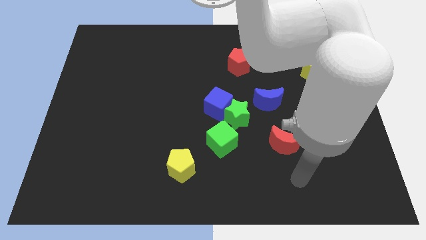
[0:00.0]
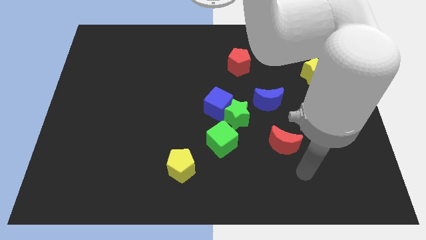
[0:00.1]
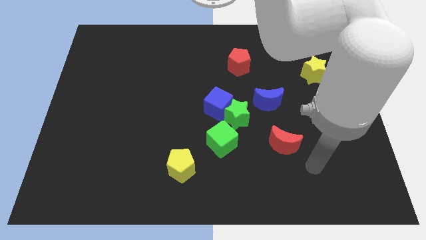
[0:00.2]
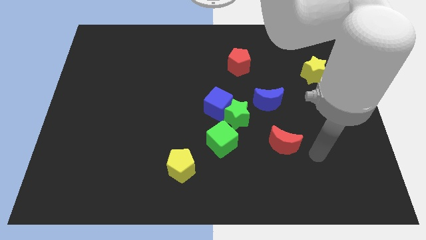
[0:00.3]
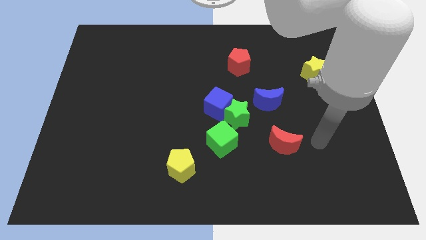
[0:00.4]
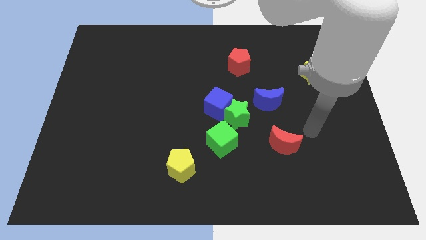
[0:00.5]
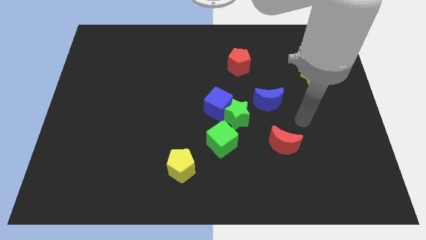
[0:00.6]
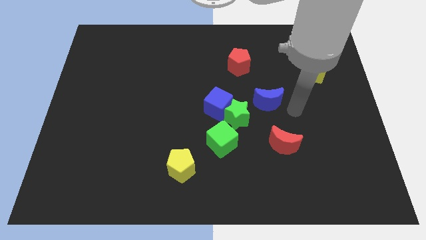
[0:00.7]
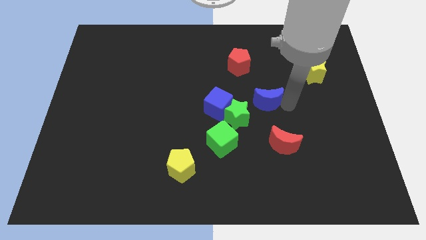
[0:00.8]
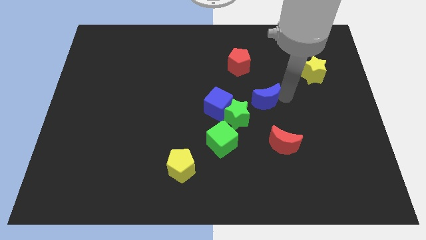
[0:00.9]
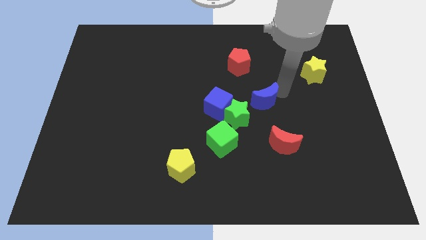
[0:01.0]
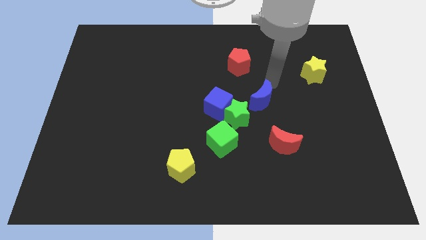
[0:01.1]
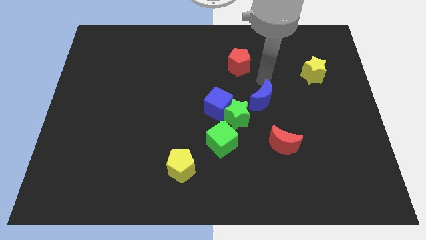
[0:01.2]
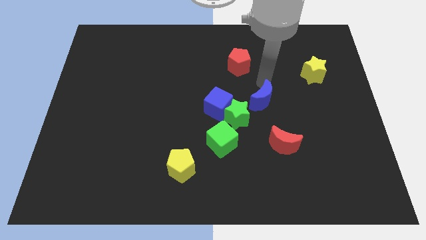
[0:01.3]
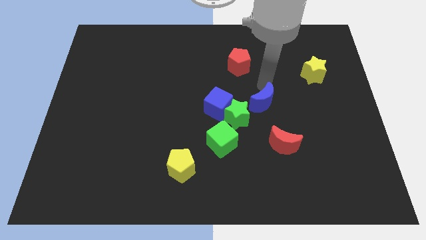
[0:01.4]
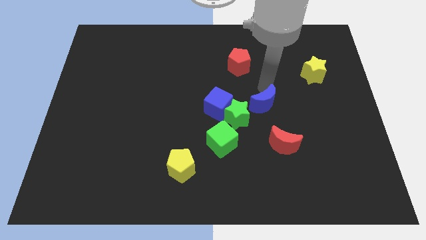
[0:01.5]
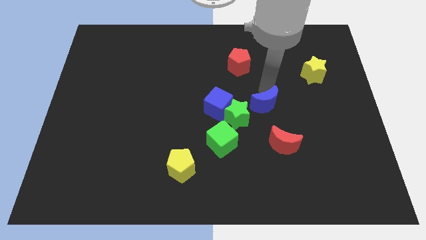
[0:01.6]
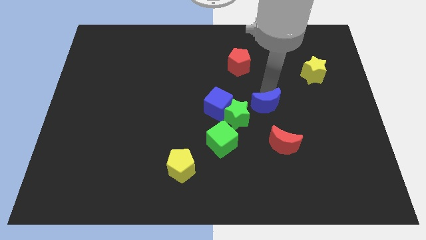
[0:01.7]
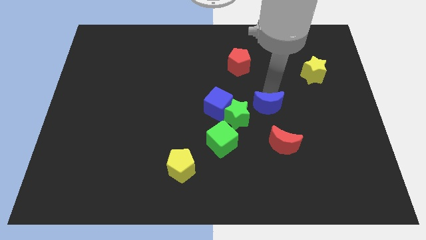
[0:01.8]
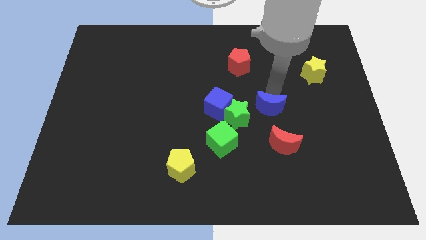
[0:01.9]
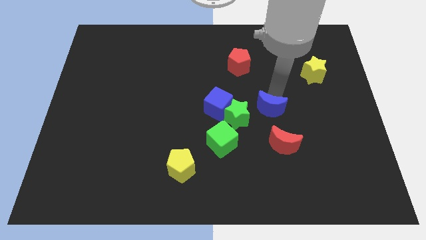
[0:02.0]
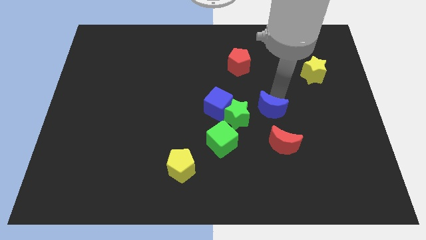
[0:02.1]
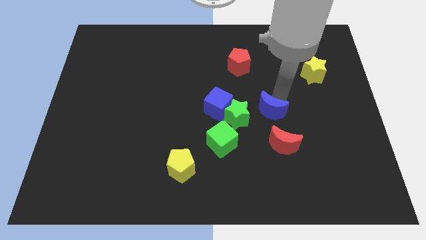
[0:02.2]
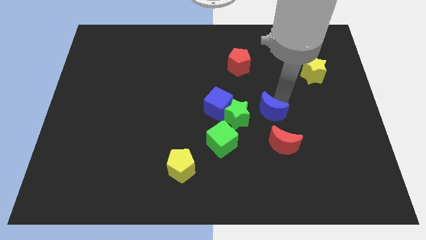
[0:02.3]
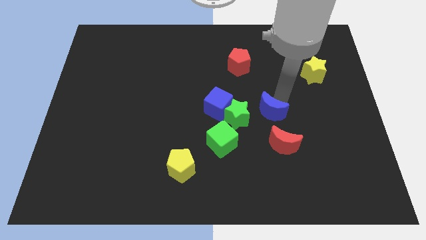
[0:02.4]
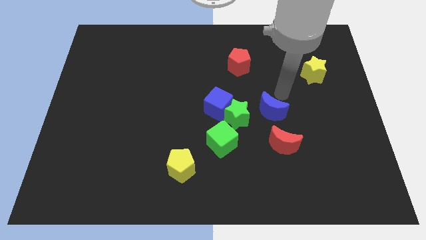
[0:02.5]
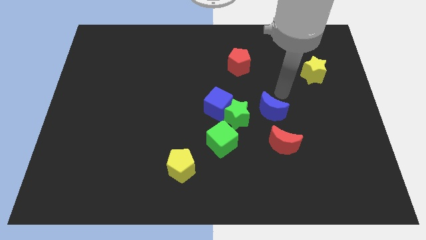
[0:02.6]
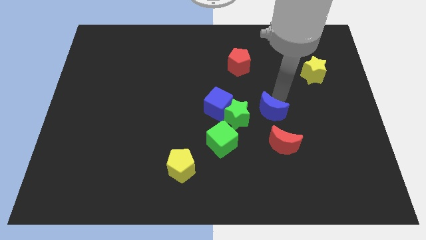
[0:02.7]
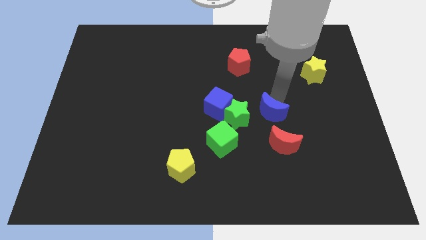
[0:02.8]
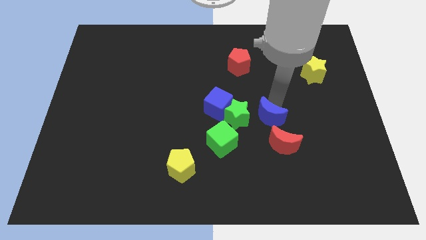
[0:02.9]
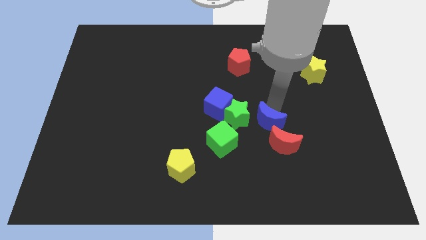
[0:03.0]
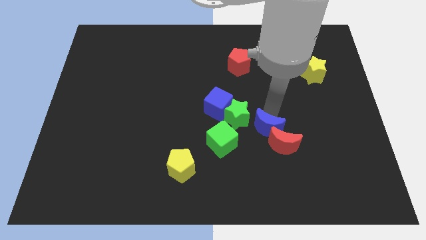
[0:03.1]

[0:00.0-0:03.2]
move the blue moon slightly downwards

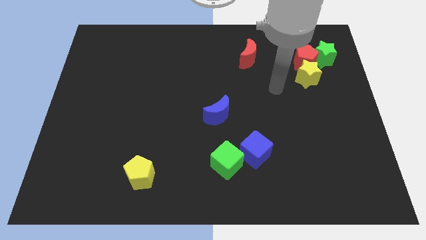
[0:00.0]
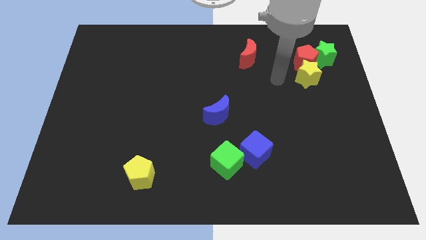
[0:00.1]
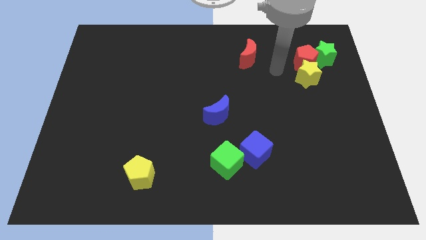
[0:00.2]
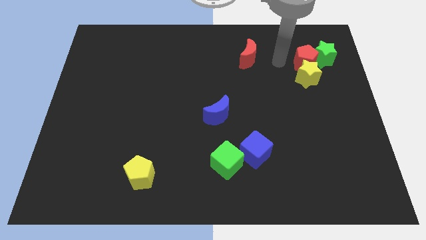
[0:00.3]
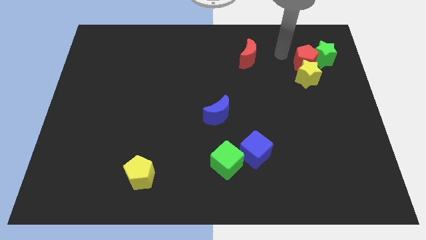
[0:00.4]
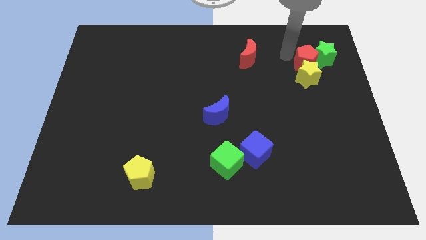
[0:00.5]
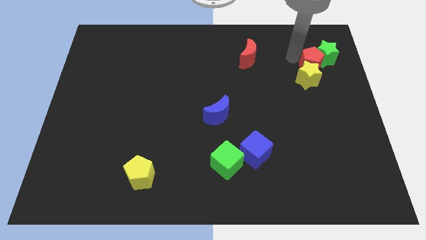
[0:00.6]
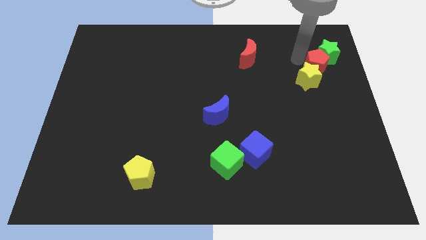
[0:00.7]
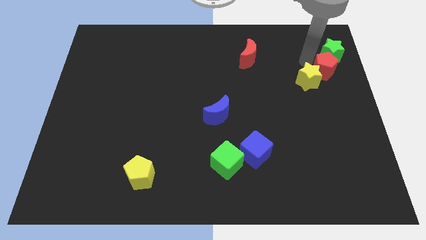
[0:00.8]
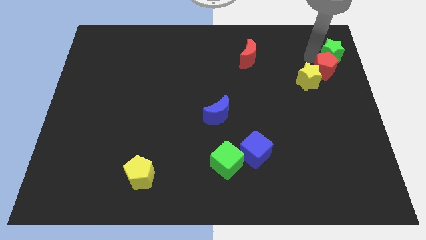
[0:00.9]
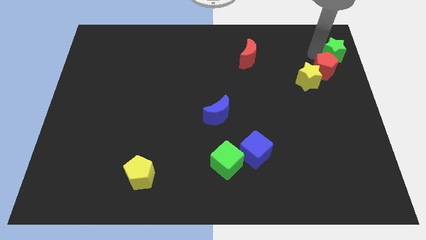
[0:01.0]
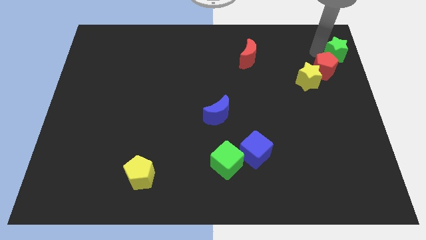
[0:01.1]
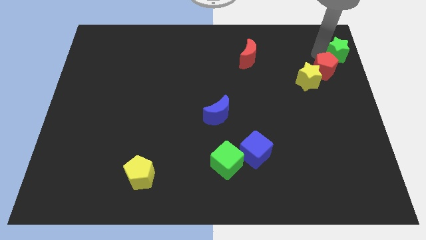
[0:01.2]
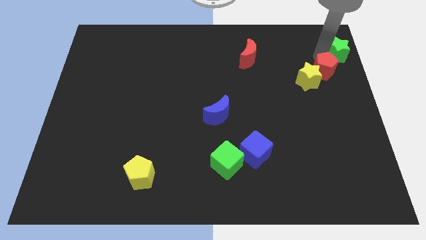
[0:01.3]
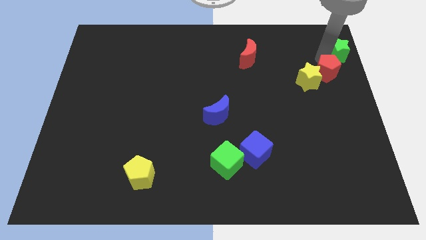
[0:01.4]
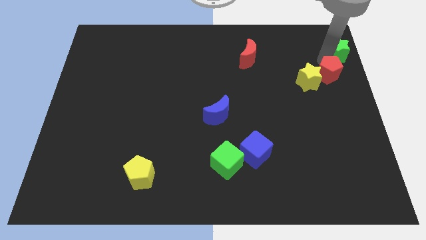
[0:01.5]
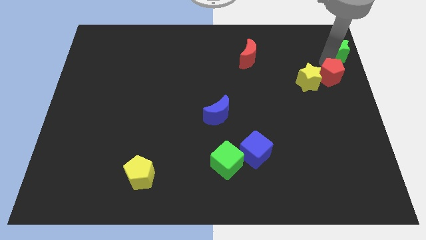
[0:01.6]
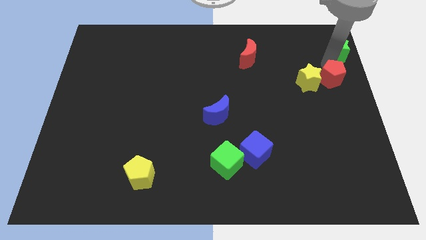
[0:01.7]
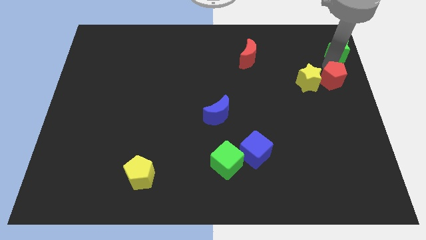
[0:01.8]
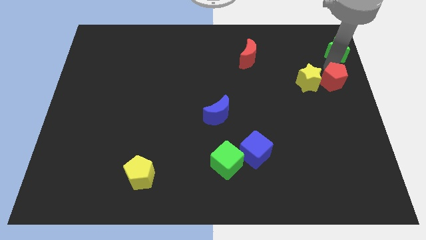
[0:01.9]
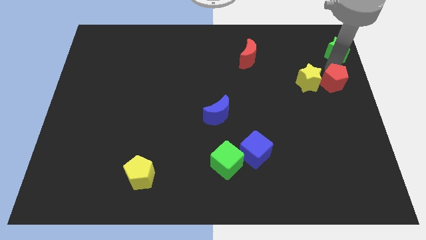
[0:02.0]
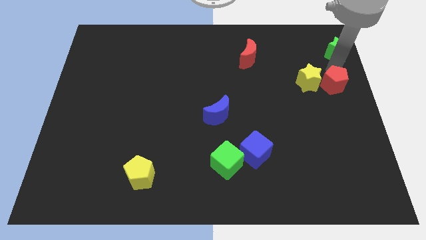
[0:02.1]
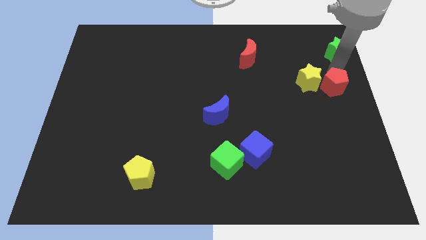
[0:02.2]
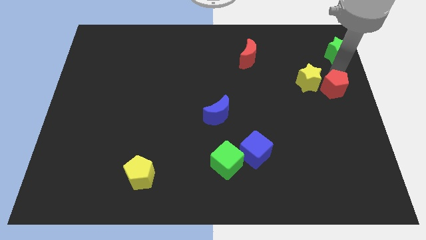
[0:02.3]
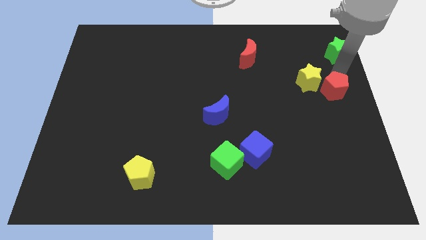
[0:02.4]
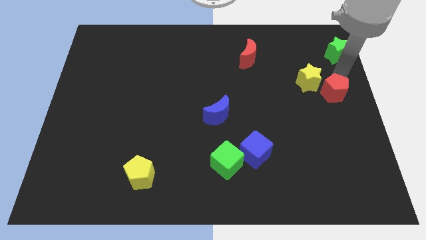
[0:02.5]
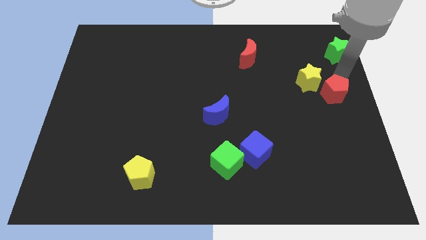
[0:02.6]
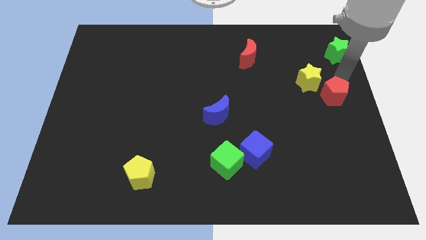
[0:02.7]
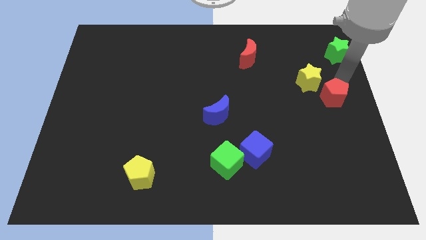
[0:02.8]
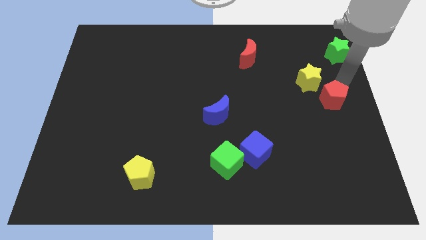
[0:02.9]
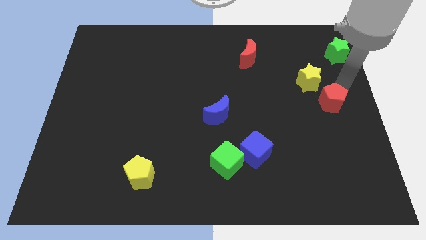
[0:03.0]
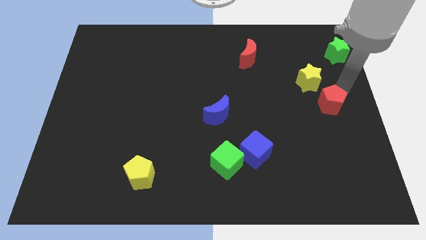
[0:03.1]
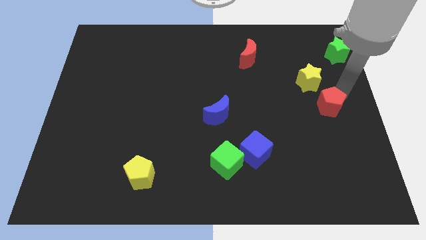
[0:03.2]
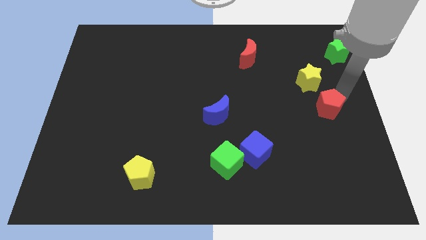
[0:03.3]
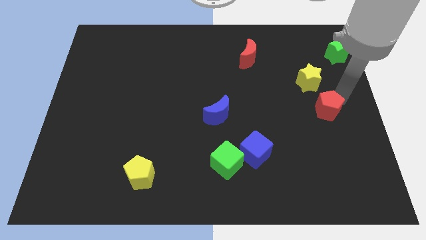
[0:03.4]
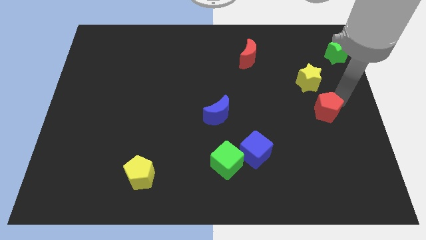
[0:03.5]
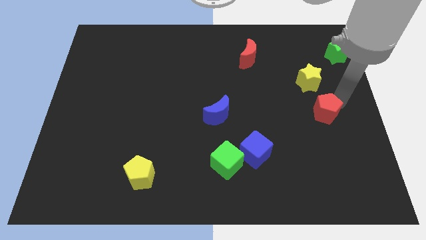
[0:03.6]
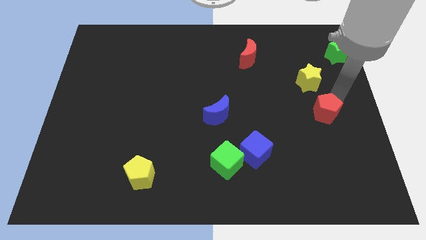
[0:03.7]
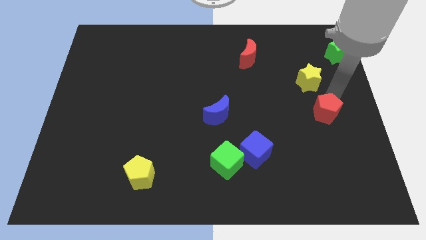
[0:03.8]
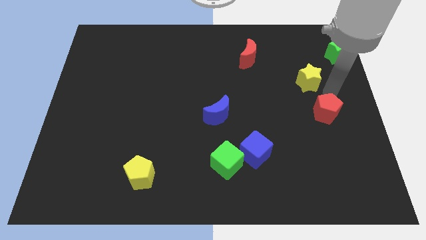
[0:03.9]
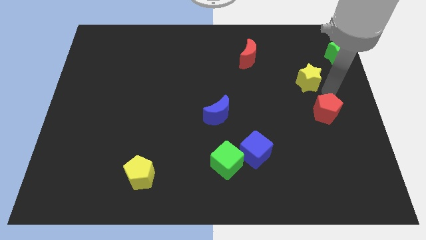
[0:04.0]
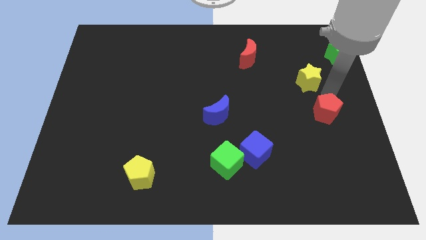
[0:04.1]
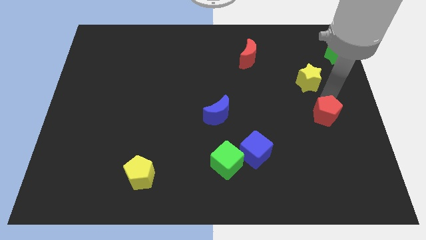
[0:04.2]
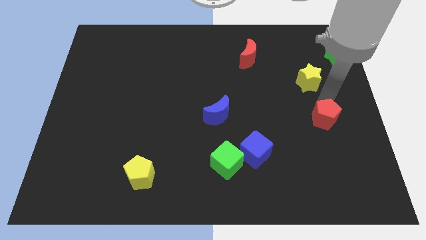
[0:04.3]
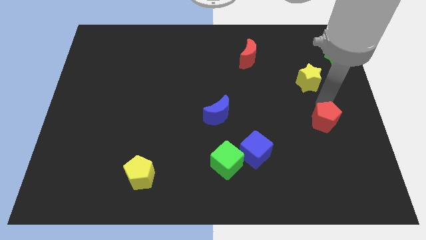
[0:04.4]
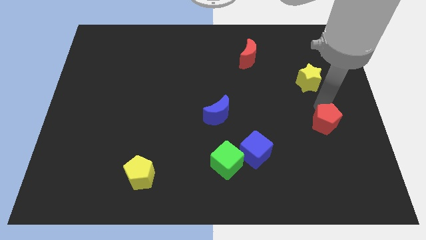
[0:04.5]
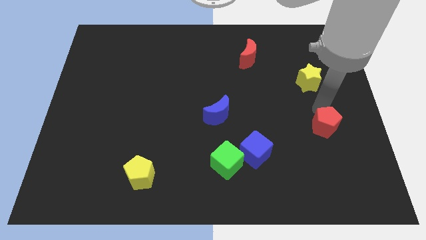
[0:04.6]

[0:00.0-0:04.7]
slide the red pentagon down
